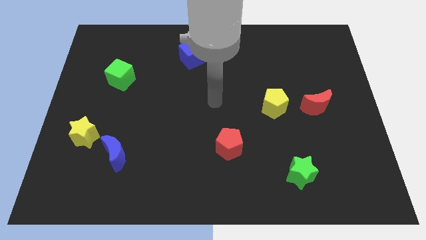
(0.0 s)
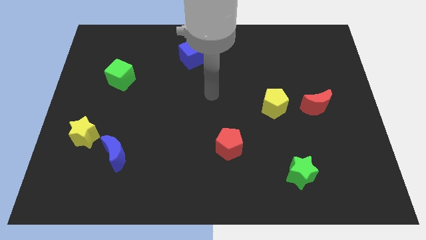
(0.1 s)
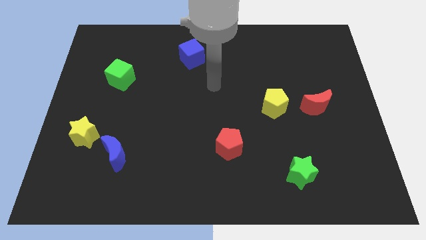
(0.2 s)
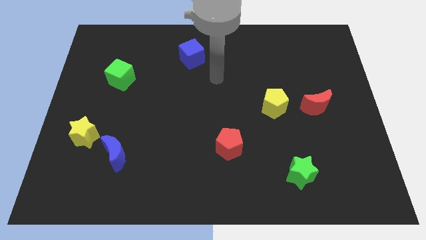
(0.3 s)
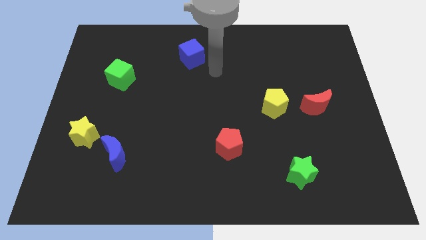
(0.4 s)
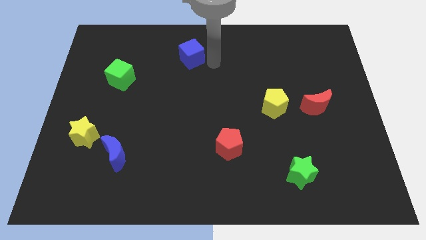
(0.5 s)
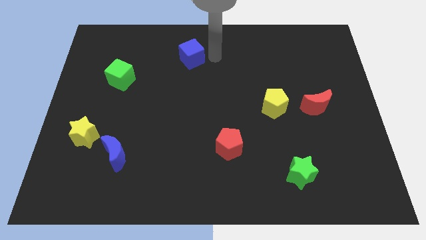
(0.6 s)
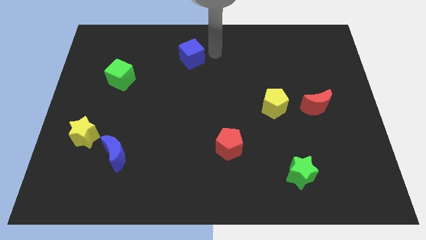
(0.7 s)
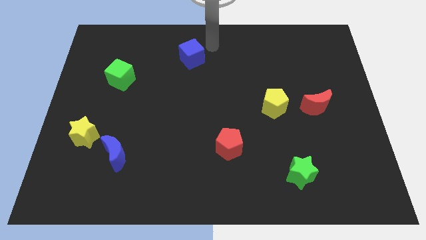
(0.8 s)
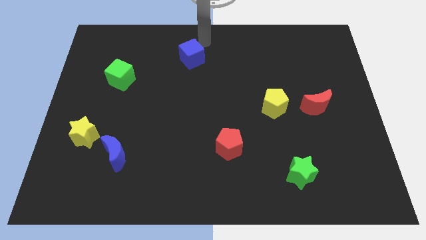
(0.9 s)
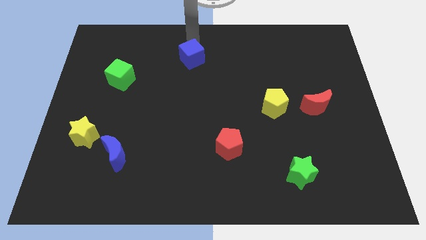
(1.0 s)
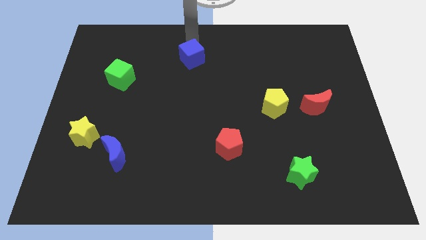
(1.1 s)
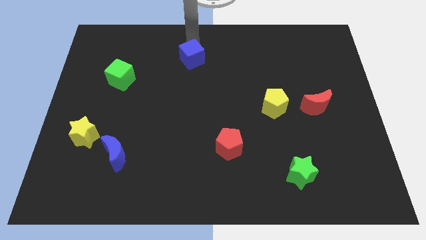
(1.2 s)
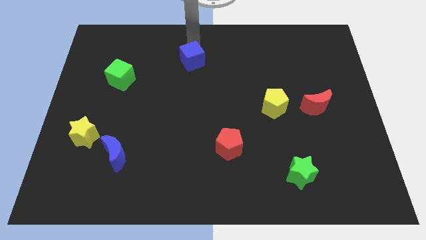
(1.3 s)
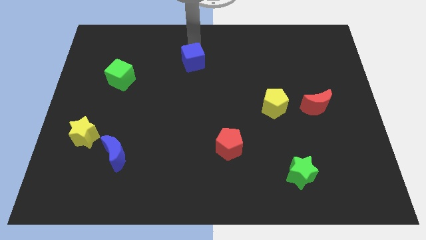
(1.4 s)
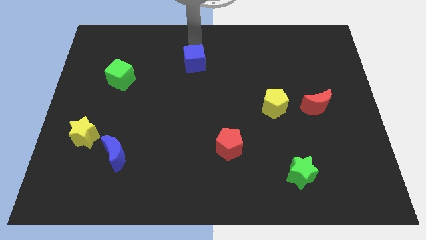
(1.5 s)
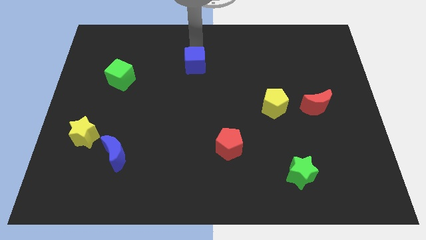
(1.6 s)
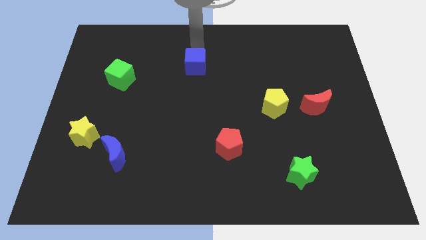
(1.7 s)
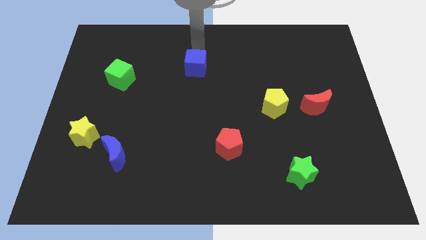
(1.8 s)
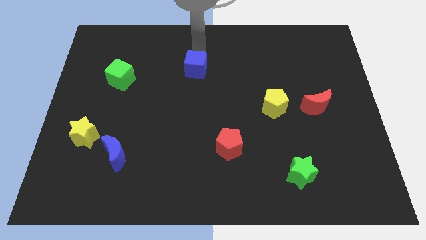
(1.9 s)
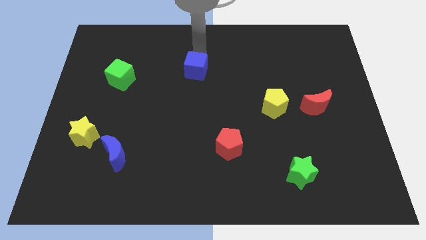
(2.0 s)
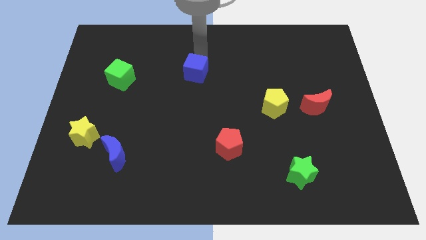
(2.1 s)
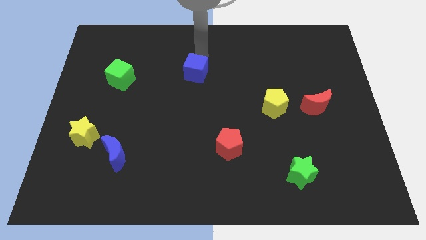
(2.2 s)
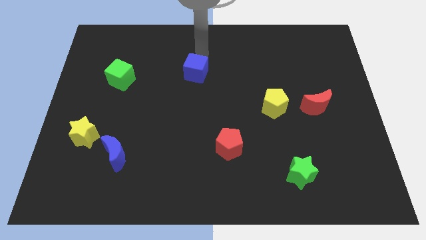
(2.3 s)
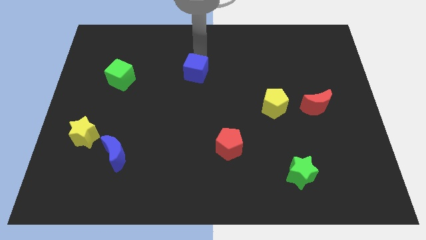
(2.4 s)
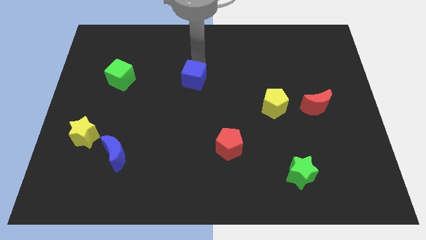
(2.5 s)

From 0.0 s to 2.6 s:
move the blue cube a little bit downwards

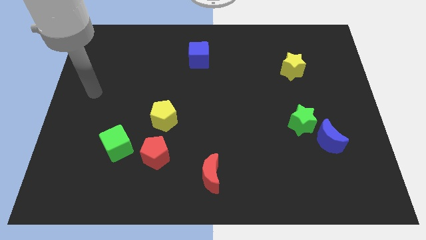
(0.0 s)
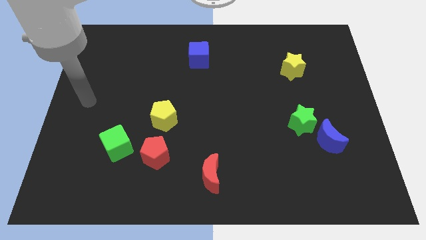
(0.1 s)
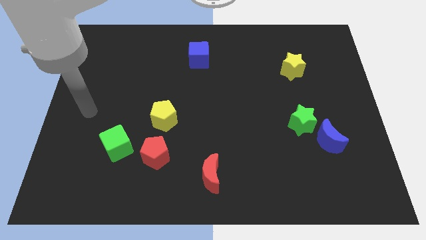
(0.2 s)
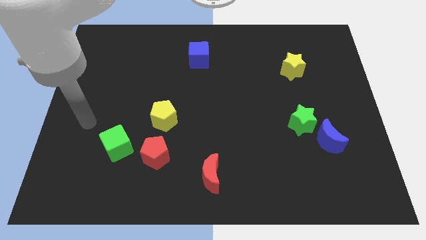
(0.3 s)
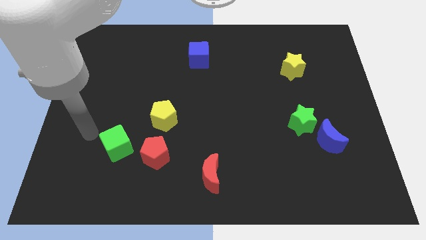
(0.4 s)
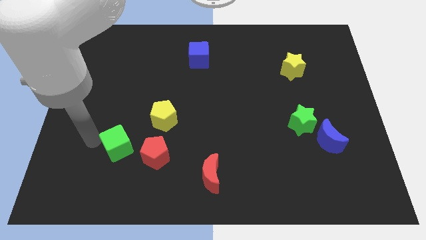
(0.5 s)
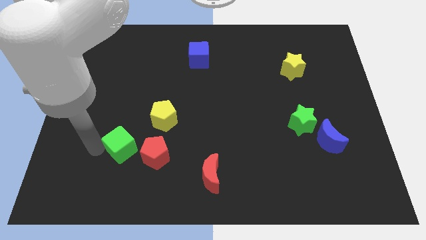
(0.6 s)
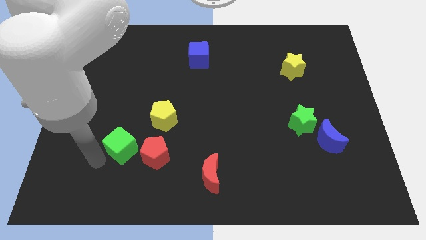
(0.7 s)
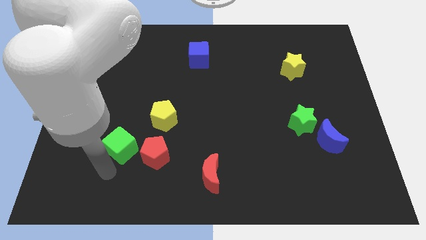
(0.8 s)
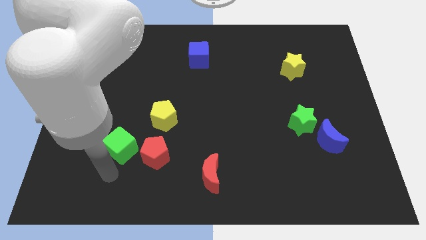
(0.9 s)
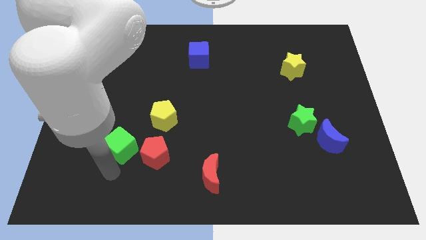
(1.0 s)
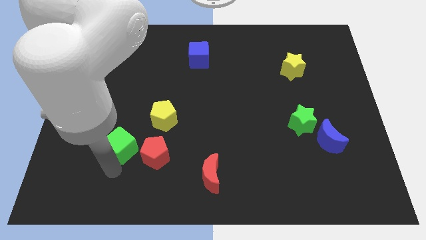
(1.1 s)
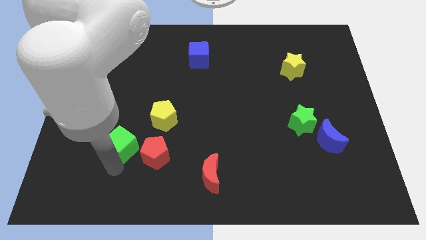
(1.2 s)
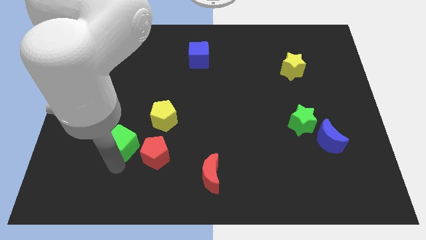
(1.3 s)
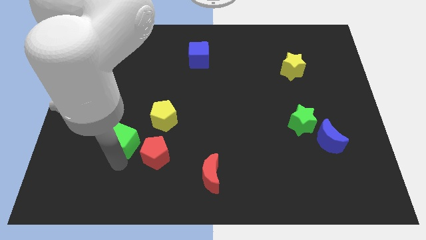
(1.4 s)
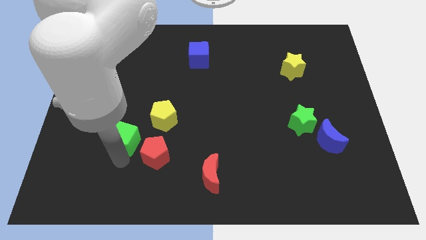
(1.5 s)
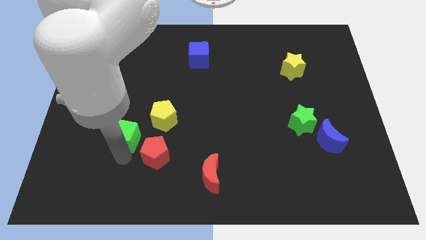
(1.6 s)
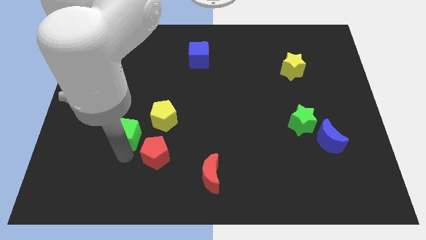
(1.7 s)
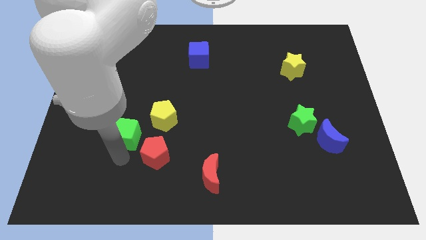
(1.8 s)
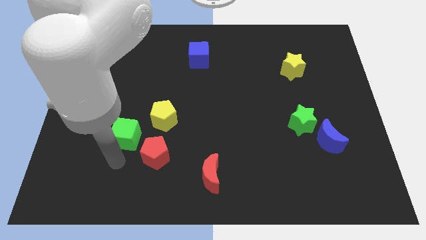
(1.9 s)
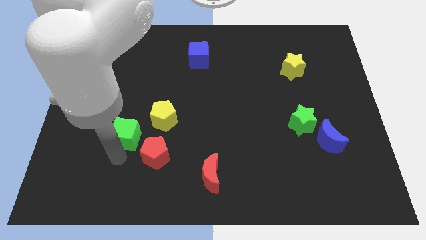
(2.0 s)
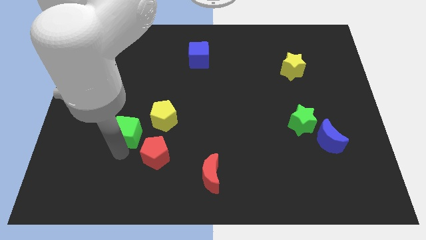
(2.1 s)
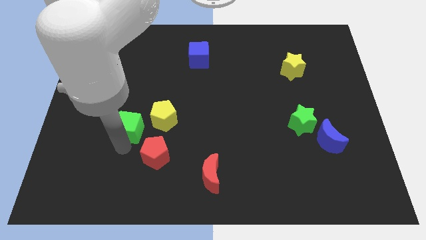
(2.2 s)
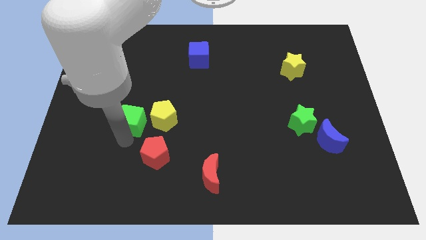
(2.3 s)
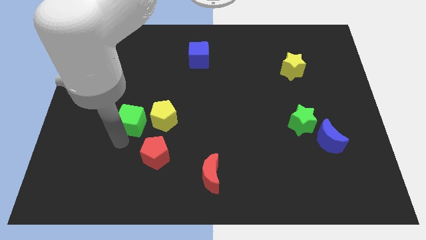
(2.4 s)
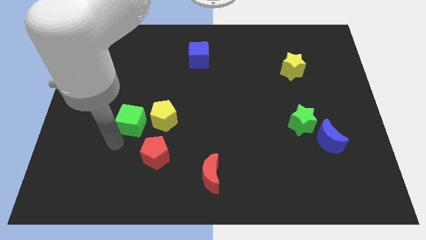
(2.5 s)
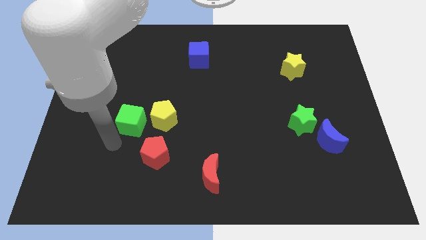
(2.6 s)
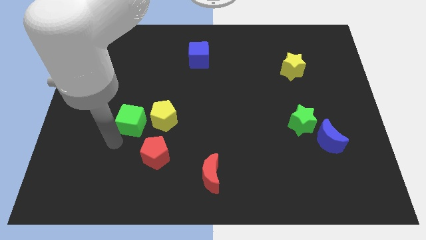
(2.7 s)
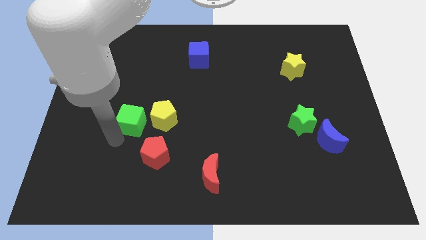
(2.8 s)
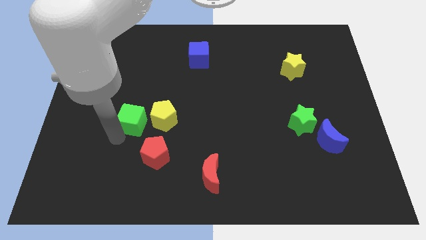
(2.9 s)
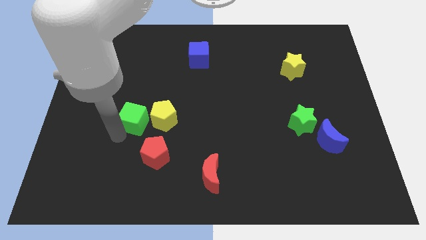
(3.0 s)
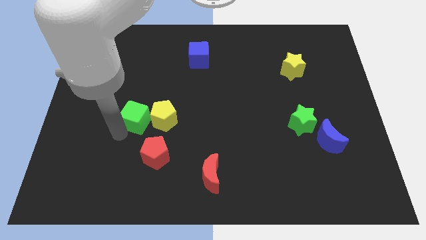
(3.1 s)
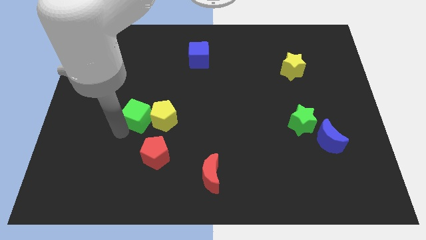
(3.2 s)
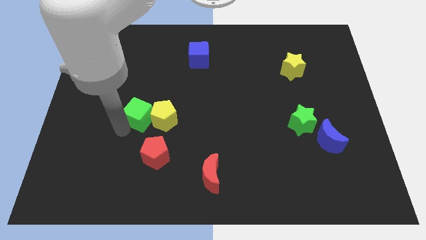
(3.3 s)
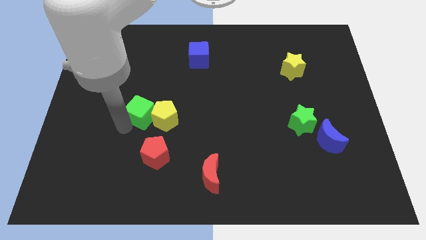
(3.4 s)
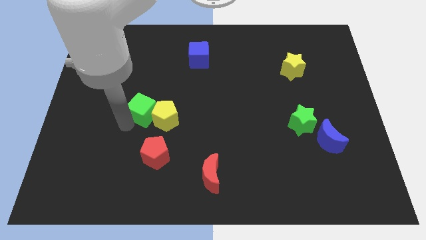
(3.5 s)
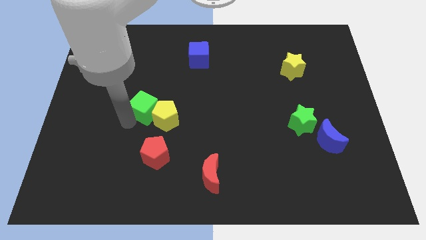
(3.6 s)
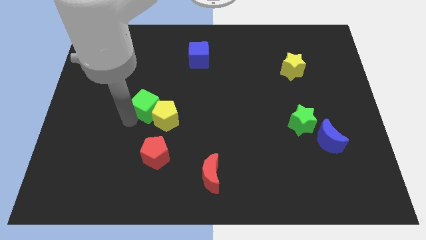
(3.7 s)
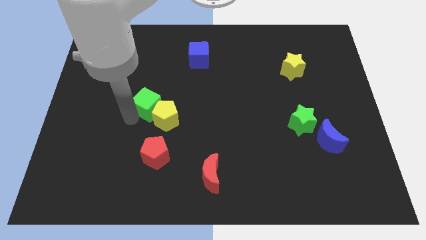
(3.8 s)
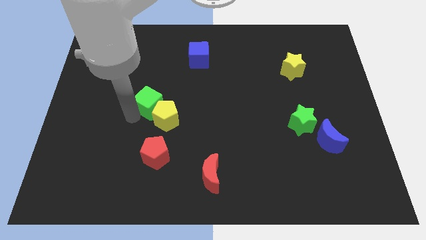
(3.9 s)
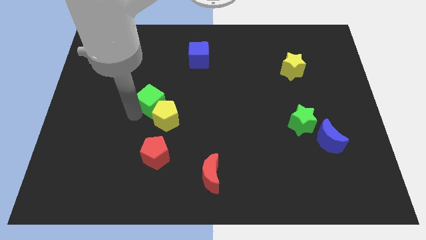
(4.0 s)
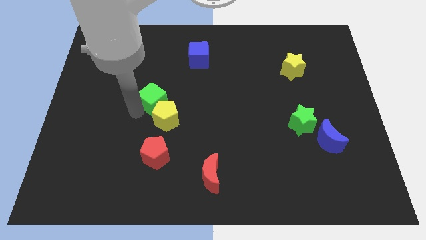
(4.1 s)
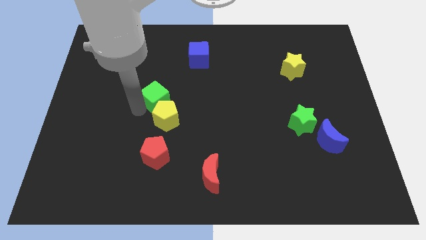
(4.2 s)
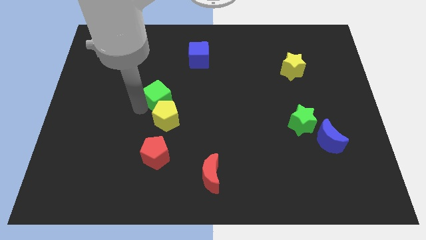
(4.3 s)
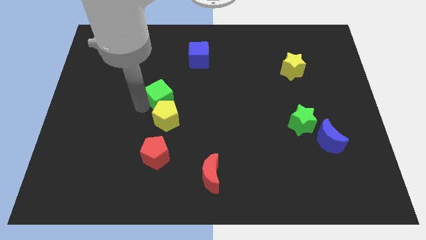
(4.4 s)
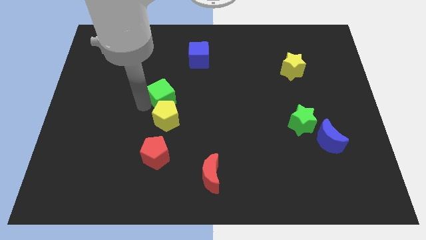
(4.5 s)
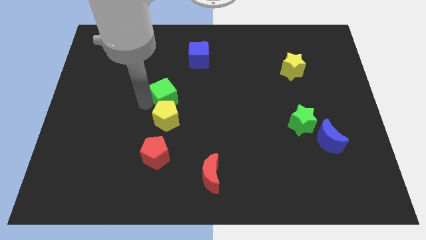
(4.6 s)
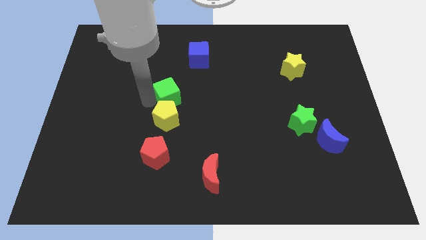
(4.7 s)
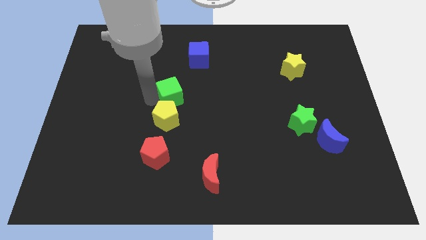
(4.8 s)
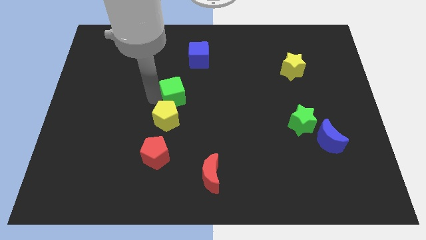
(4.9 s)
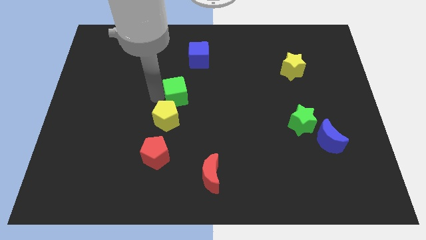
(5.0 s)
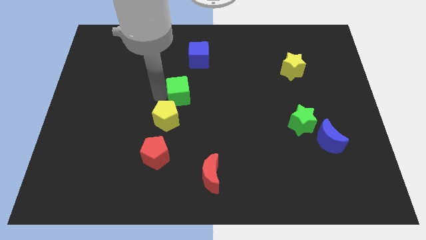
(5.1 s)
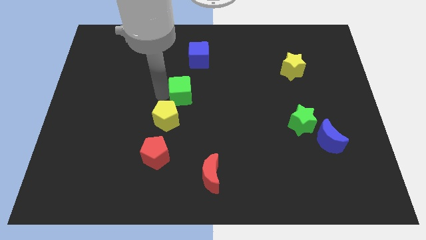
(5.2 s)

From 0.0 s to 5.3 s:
move the green cube diagonally upwards and right

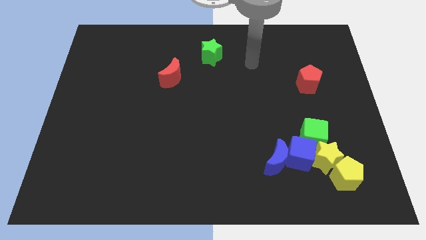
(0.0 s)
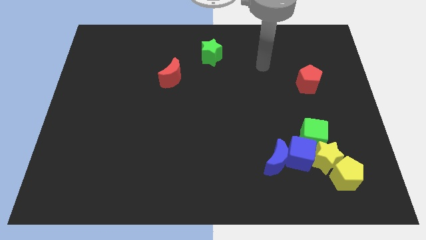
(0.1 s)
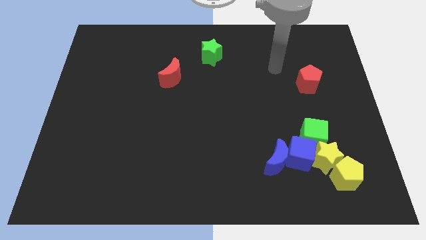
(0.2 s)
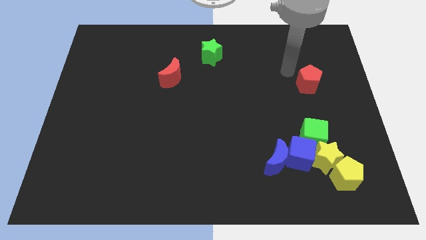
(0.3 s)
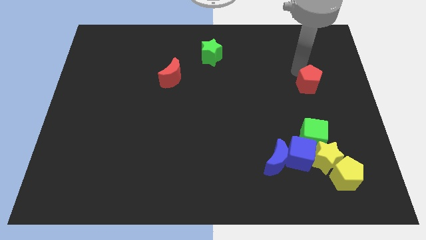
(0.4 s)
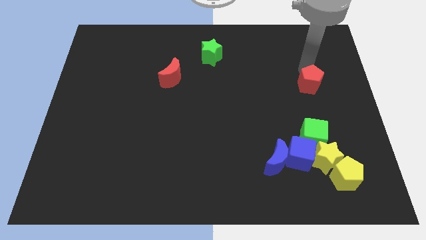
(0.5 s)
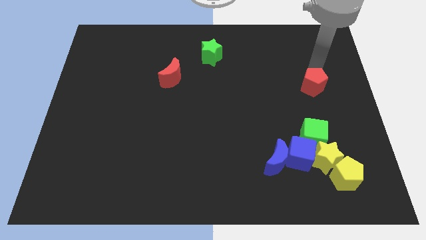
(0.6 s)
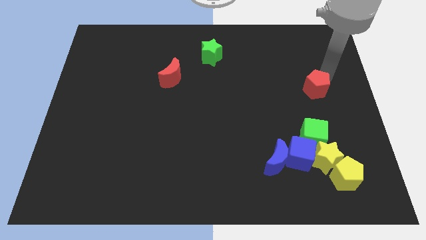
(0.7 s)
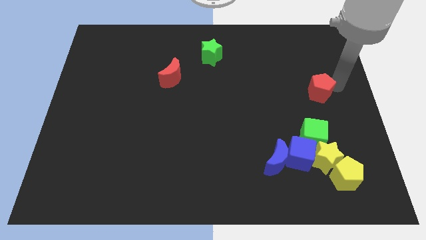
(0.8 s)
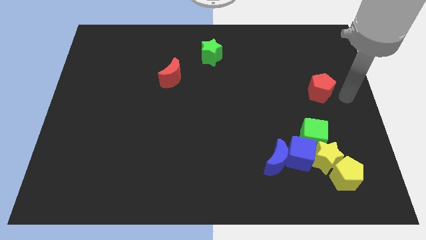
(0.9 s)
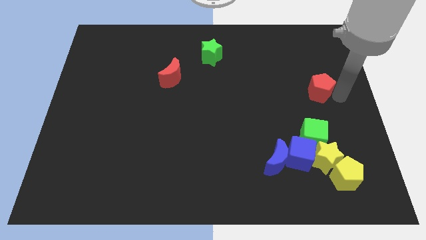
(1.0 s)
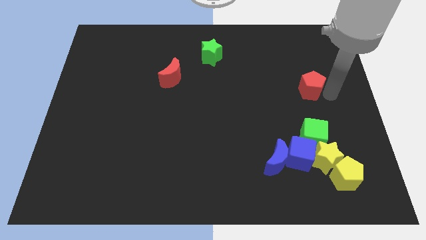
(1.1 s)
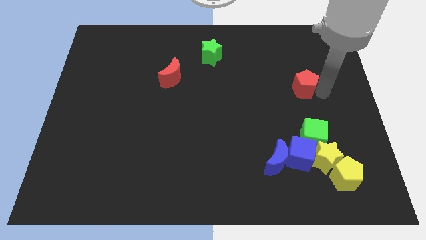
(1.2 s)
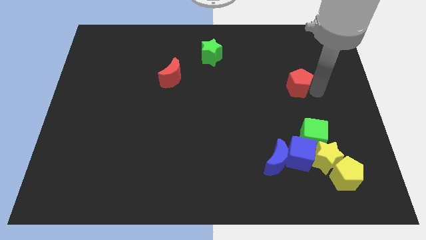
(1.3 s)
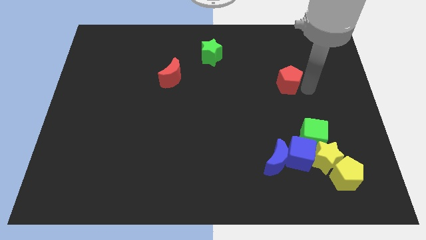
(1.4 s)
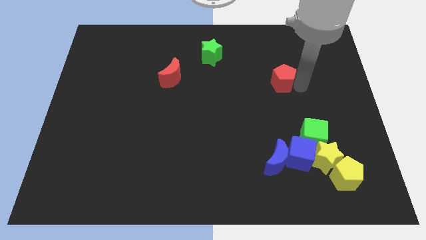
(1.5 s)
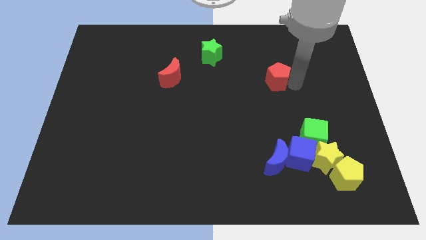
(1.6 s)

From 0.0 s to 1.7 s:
slightly move the red pentagon left
